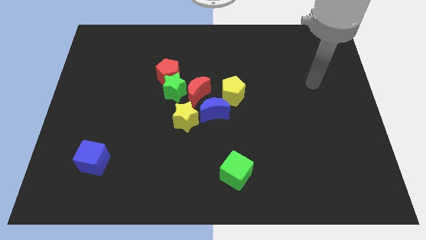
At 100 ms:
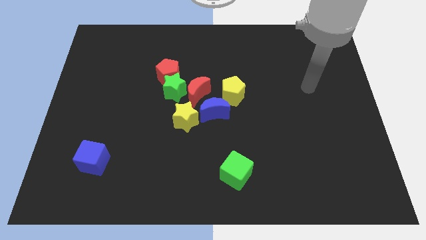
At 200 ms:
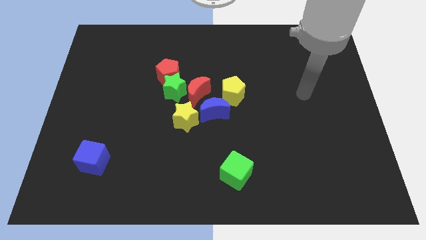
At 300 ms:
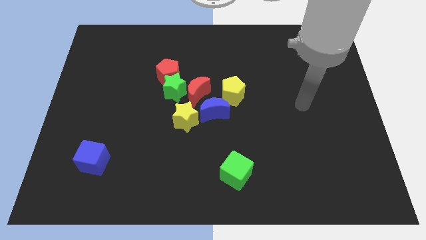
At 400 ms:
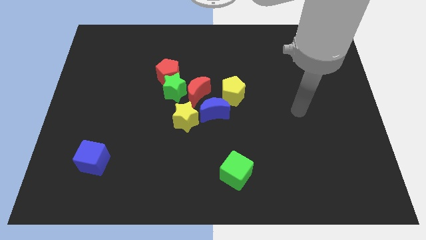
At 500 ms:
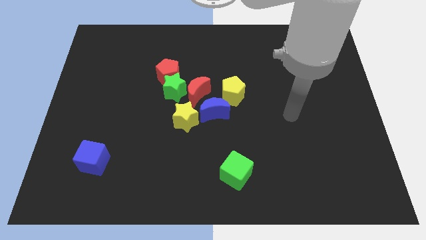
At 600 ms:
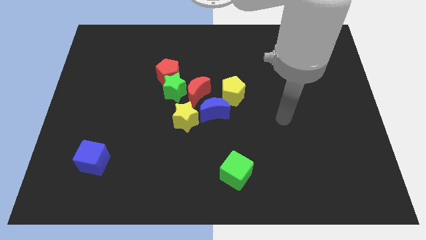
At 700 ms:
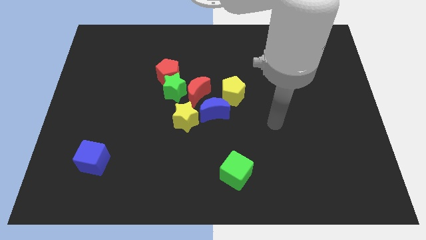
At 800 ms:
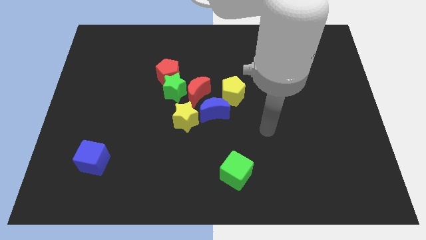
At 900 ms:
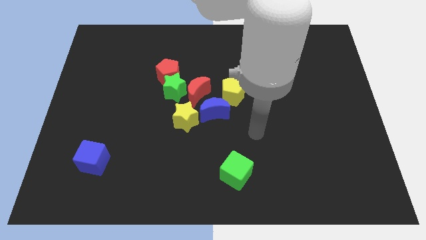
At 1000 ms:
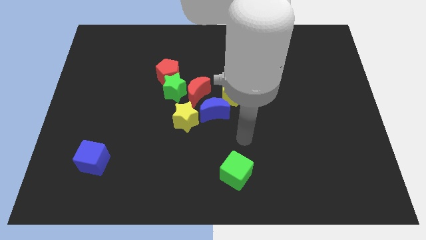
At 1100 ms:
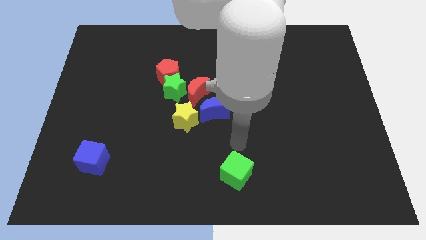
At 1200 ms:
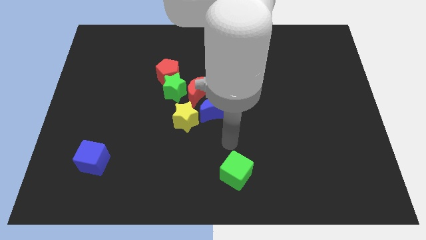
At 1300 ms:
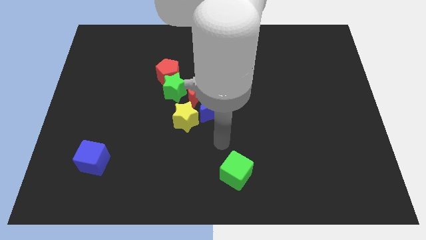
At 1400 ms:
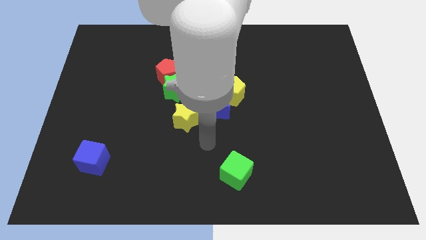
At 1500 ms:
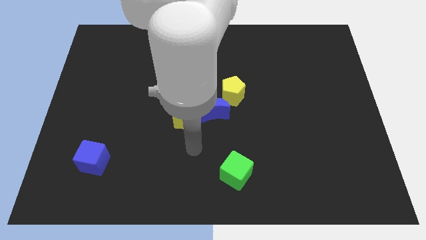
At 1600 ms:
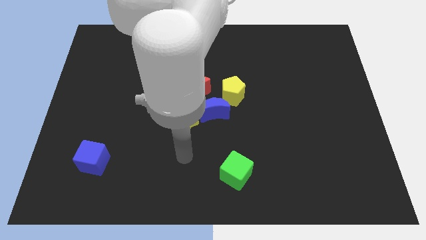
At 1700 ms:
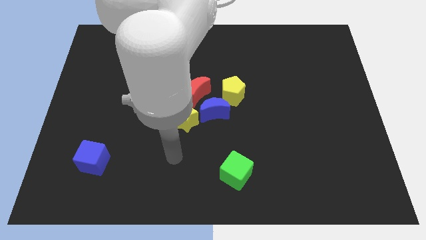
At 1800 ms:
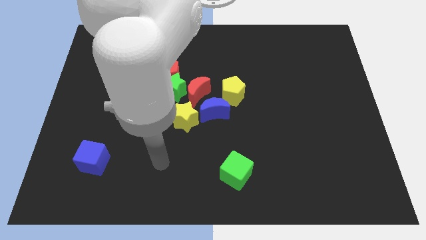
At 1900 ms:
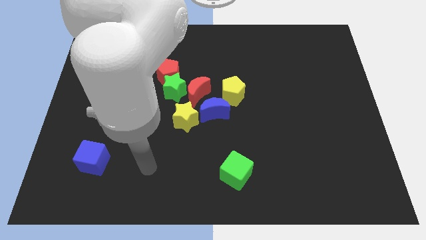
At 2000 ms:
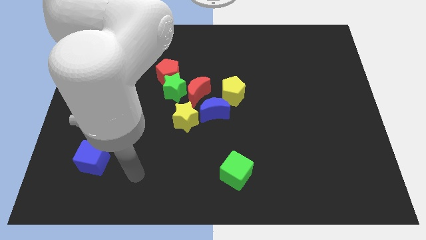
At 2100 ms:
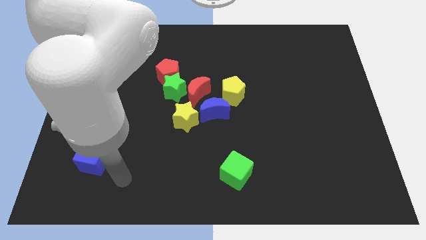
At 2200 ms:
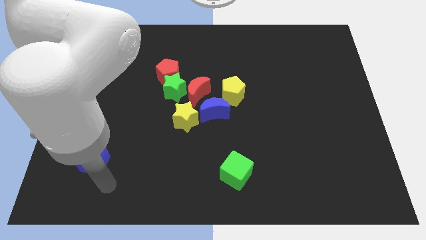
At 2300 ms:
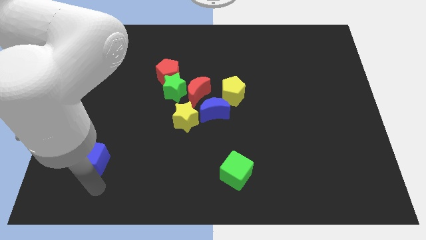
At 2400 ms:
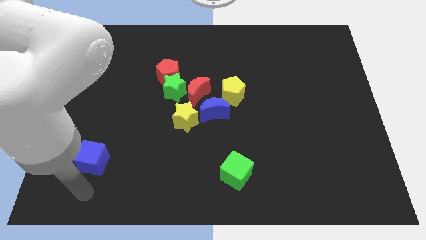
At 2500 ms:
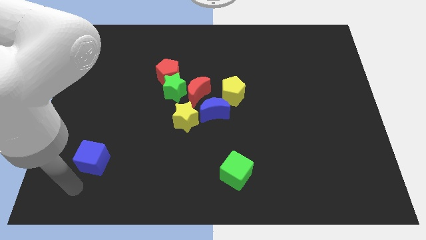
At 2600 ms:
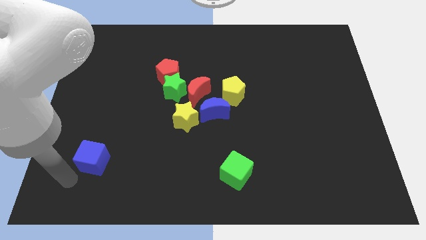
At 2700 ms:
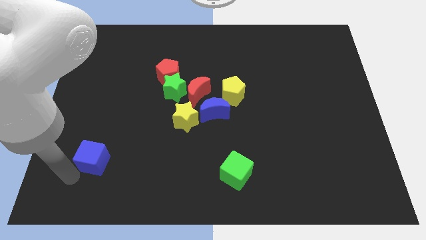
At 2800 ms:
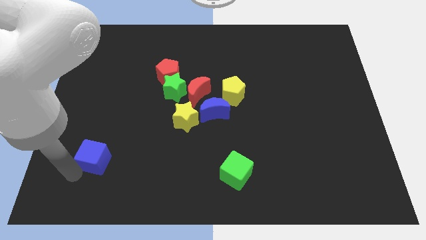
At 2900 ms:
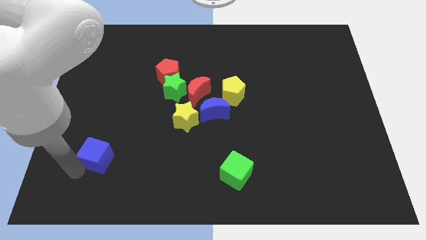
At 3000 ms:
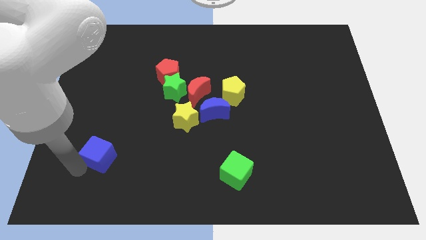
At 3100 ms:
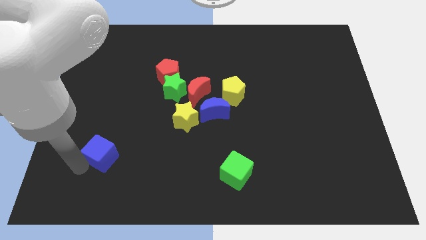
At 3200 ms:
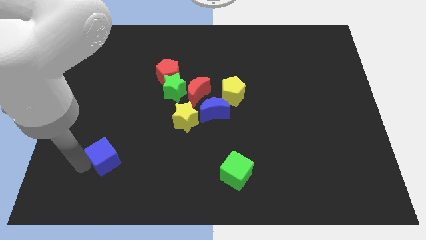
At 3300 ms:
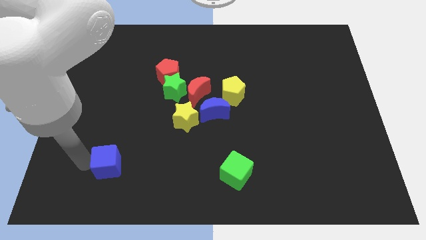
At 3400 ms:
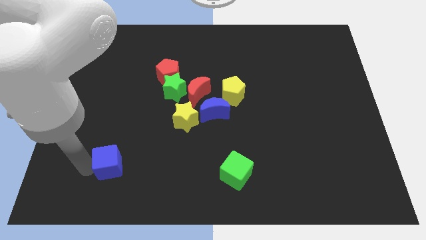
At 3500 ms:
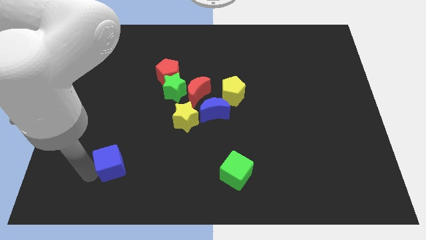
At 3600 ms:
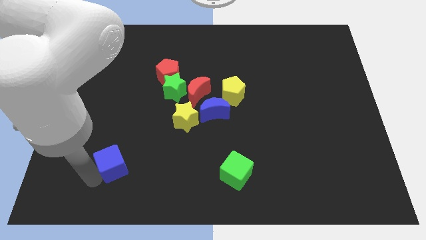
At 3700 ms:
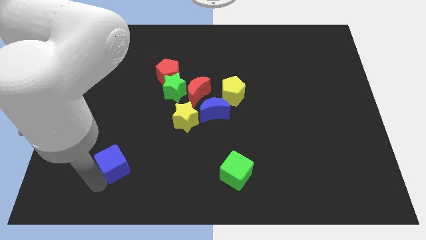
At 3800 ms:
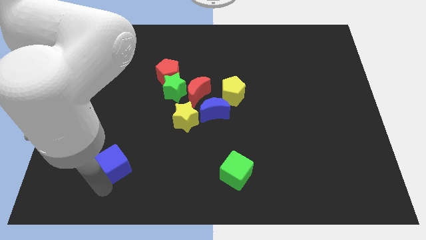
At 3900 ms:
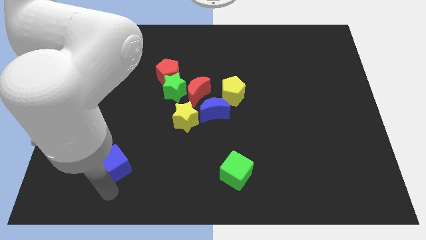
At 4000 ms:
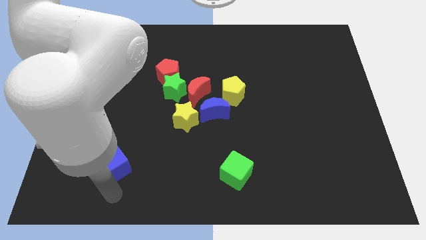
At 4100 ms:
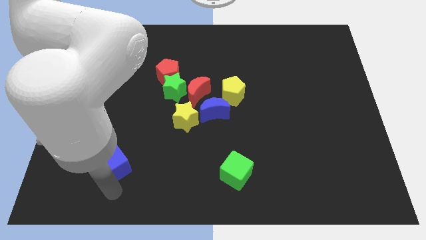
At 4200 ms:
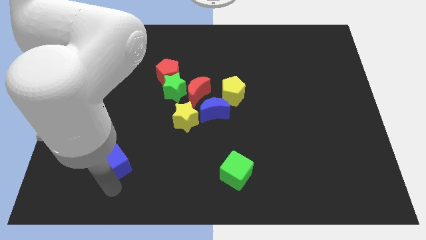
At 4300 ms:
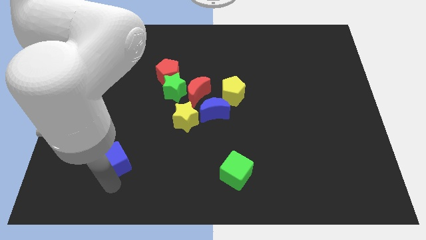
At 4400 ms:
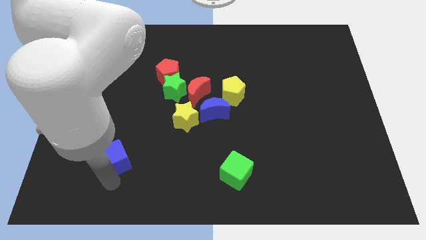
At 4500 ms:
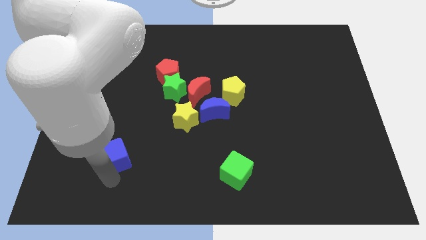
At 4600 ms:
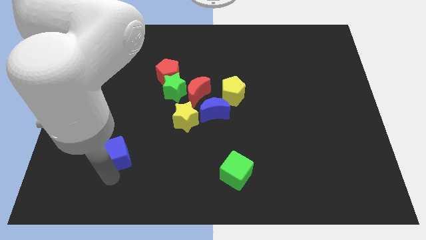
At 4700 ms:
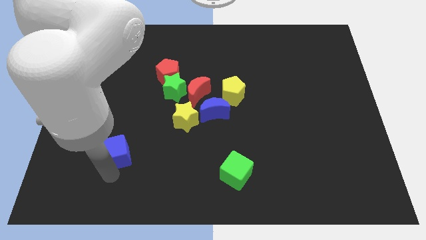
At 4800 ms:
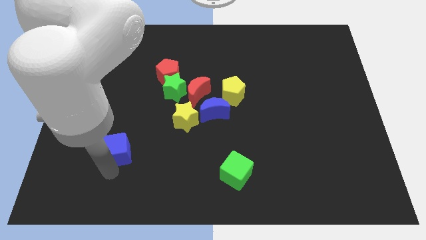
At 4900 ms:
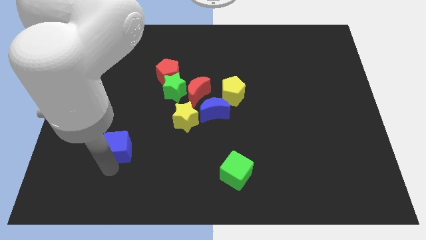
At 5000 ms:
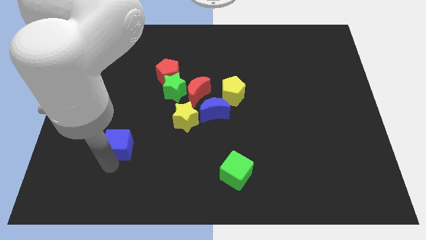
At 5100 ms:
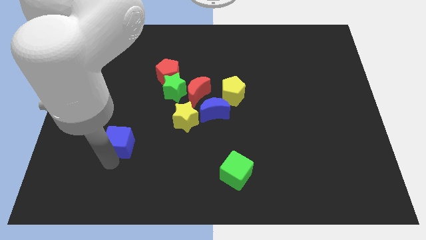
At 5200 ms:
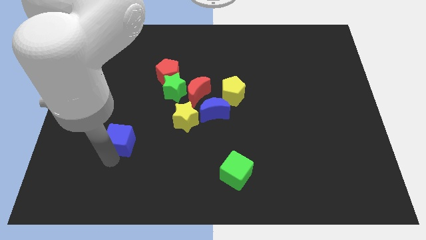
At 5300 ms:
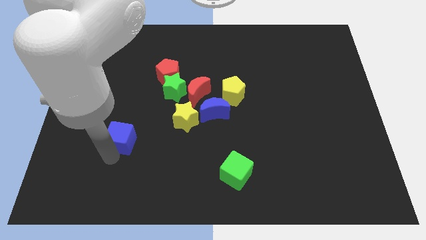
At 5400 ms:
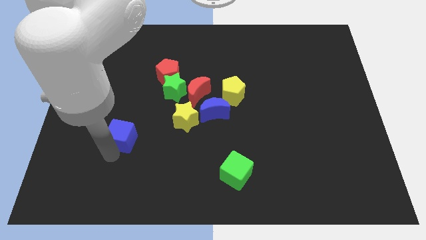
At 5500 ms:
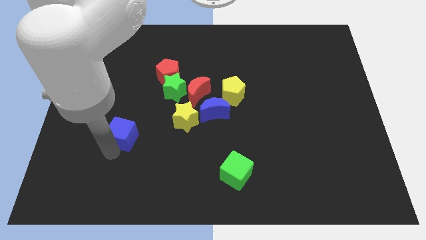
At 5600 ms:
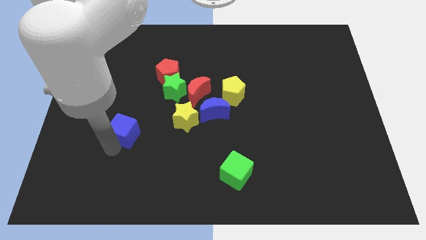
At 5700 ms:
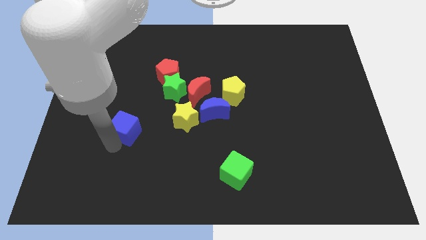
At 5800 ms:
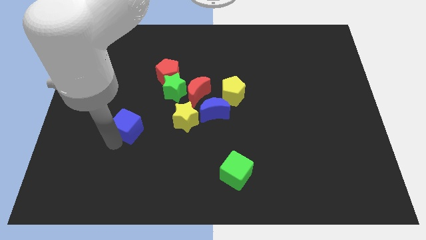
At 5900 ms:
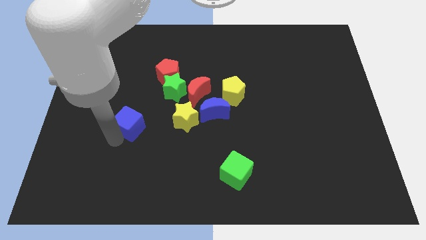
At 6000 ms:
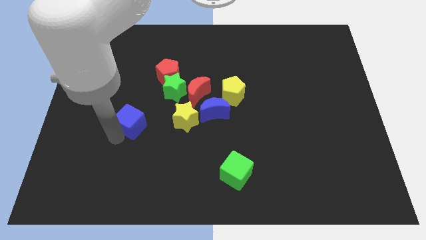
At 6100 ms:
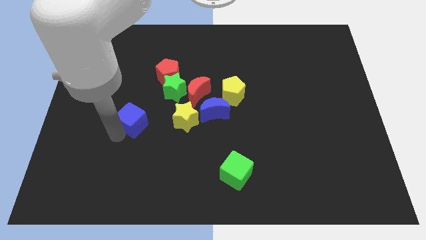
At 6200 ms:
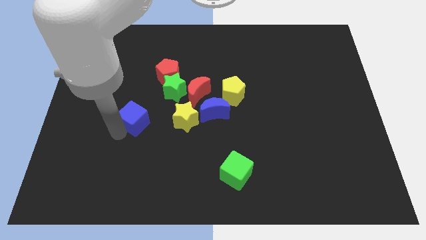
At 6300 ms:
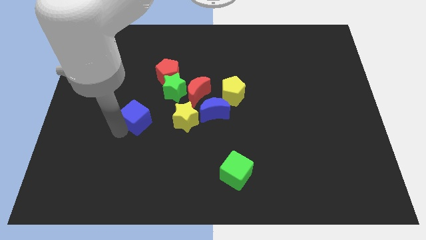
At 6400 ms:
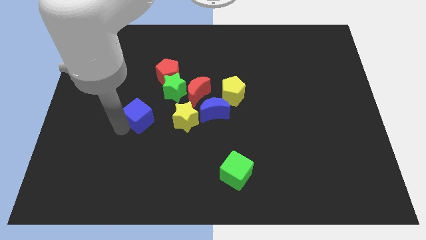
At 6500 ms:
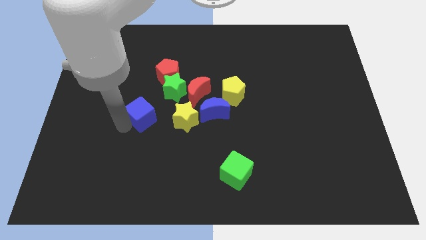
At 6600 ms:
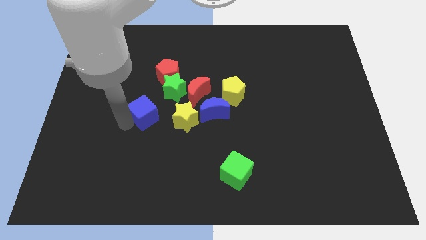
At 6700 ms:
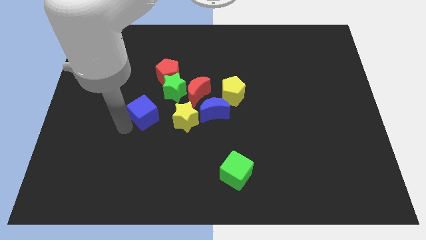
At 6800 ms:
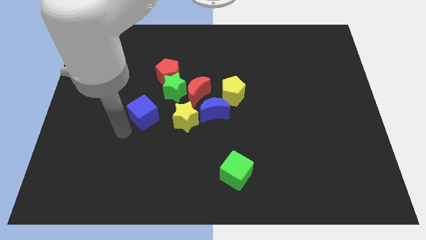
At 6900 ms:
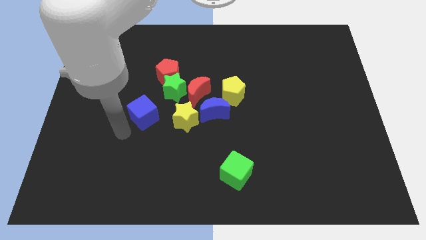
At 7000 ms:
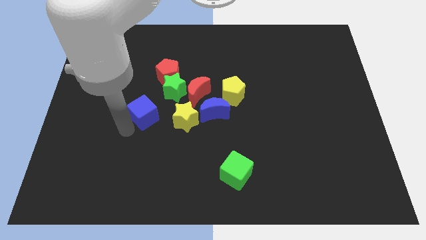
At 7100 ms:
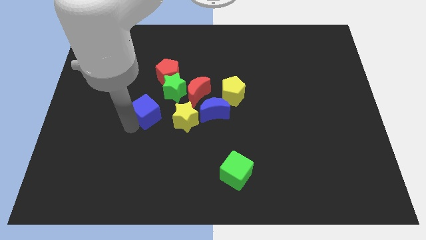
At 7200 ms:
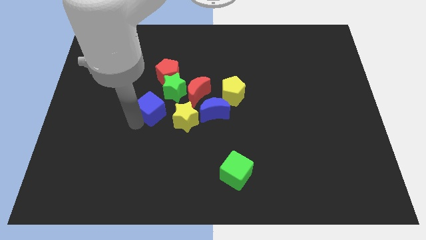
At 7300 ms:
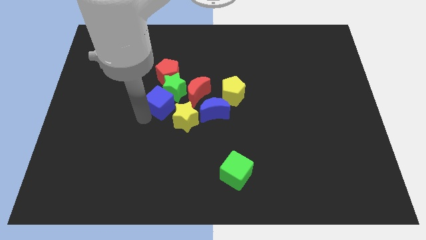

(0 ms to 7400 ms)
move the blue cube next to the green star

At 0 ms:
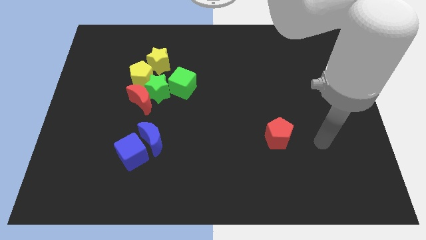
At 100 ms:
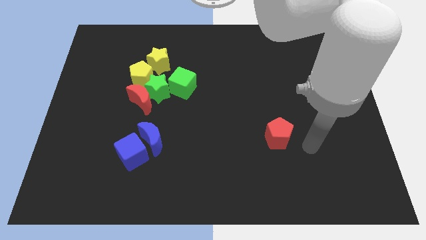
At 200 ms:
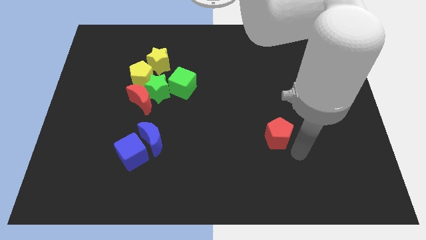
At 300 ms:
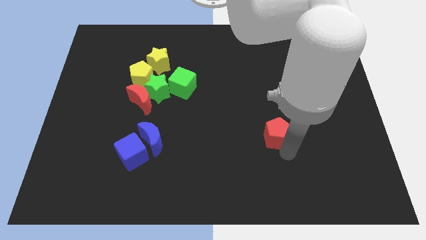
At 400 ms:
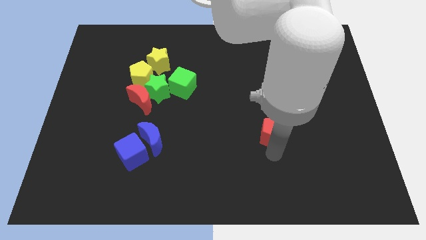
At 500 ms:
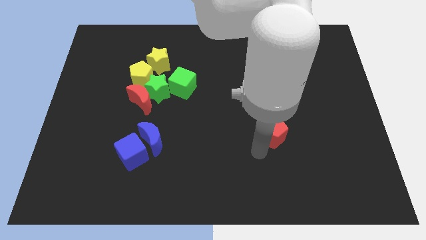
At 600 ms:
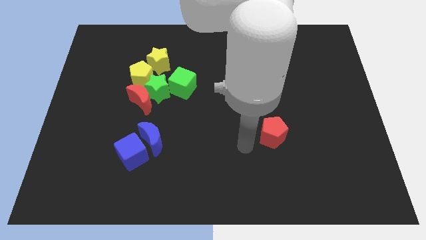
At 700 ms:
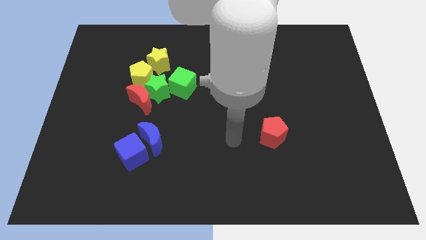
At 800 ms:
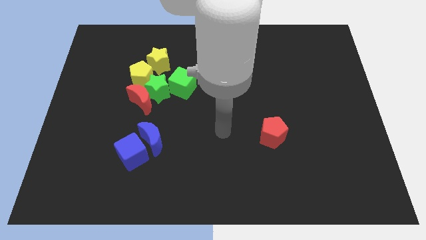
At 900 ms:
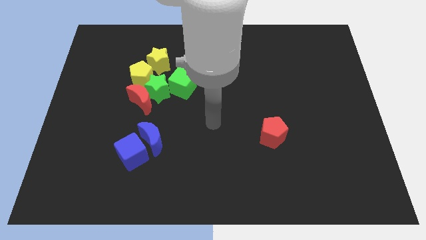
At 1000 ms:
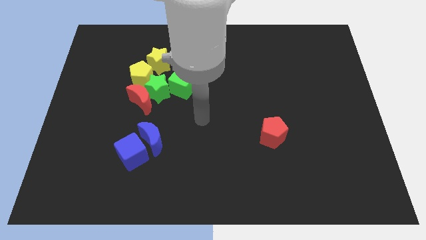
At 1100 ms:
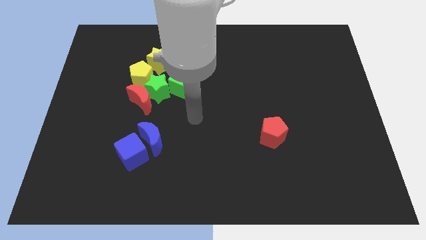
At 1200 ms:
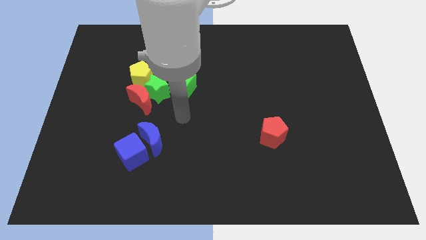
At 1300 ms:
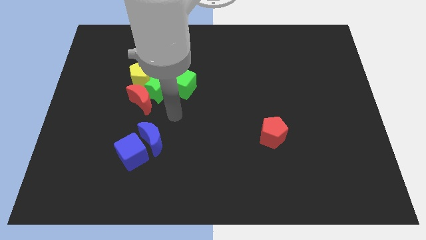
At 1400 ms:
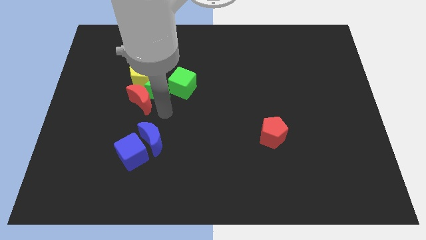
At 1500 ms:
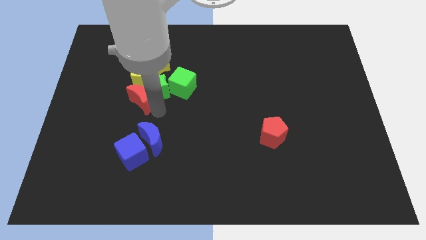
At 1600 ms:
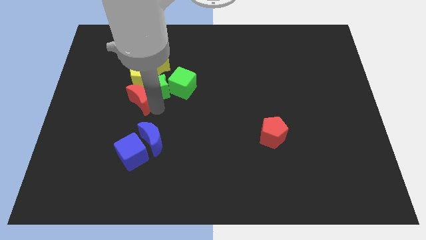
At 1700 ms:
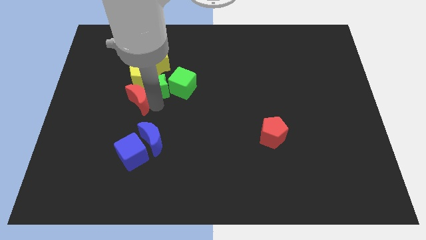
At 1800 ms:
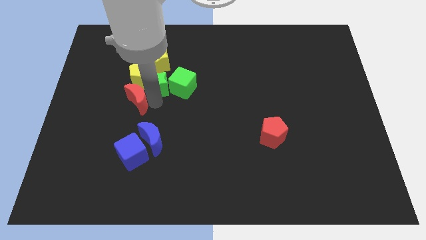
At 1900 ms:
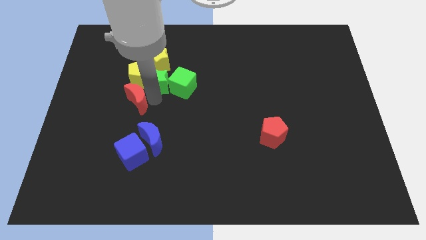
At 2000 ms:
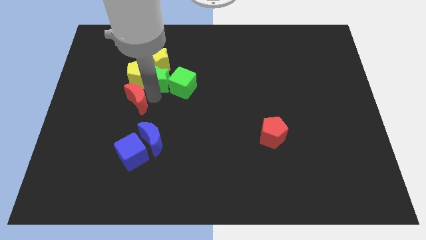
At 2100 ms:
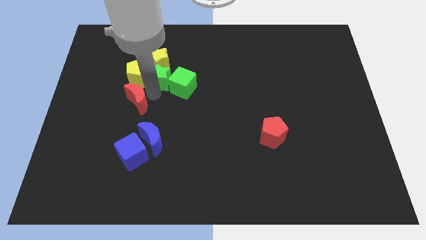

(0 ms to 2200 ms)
slide the green star next to the yellow star
